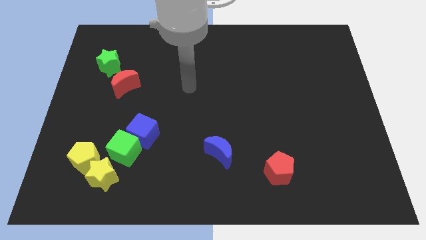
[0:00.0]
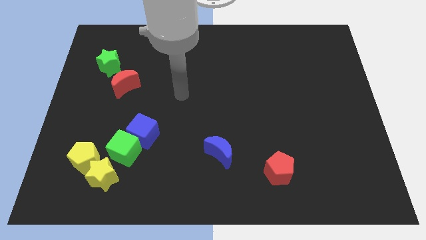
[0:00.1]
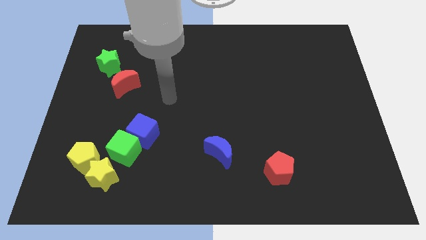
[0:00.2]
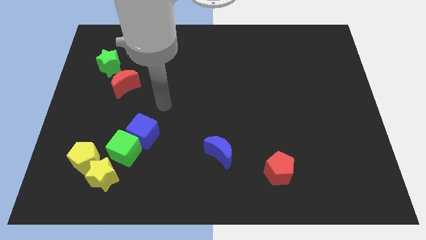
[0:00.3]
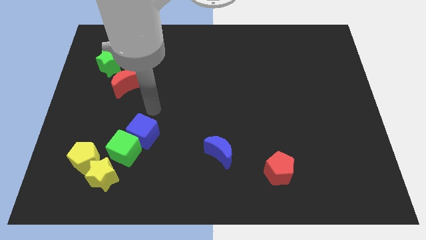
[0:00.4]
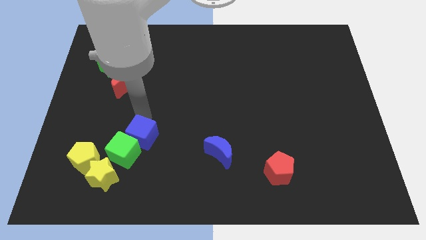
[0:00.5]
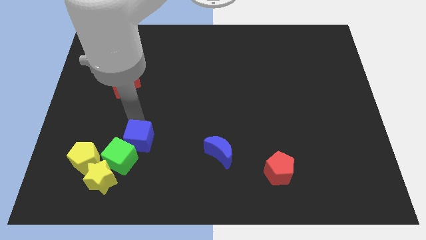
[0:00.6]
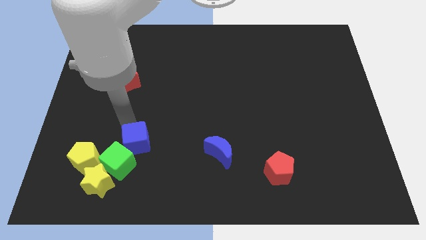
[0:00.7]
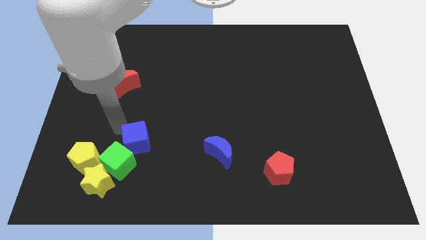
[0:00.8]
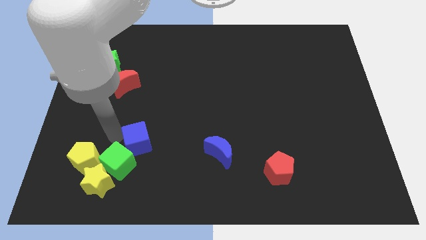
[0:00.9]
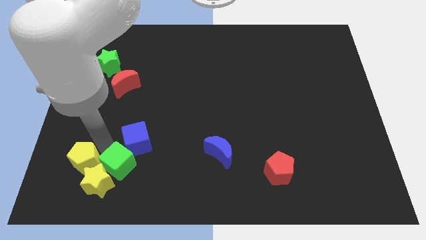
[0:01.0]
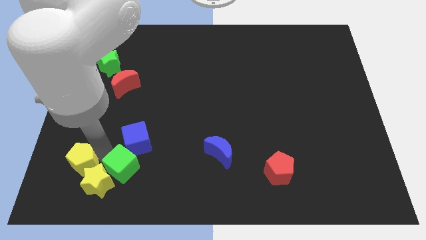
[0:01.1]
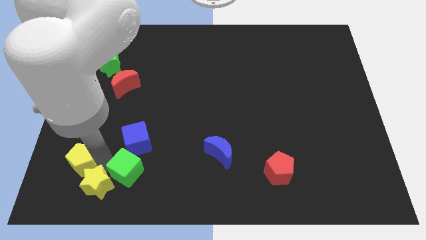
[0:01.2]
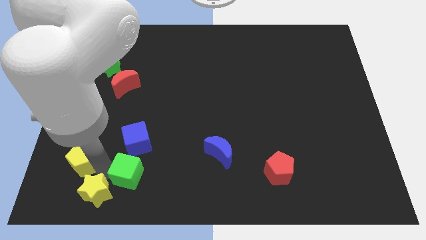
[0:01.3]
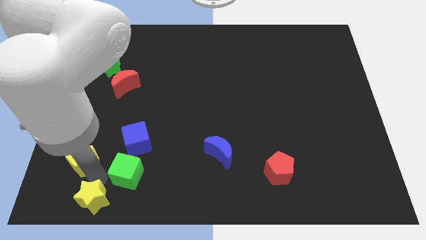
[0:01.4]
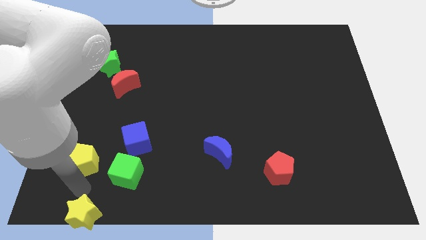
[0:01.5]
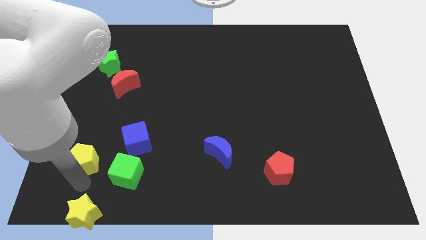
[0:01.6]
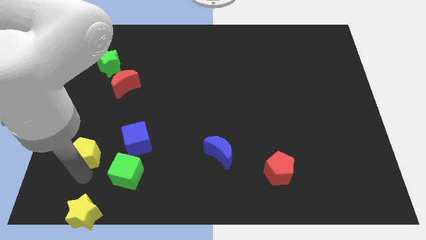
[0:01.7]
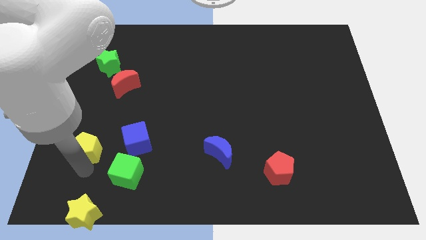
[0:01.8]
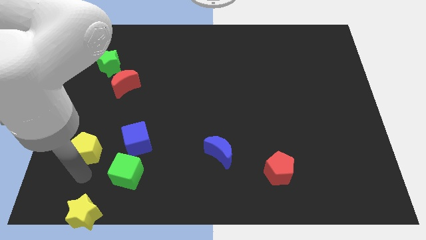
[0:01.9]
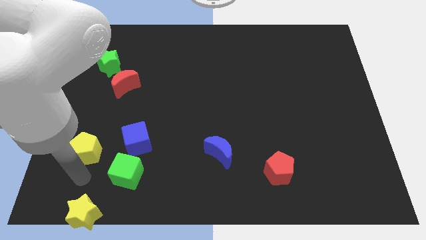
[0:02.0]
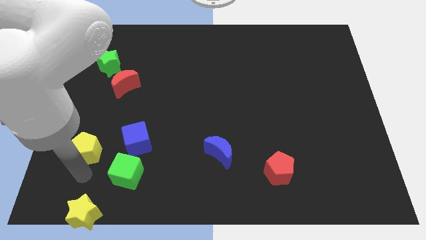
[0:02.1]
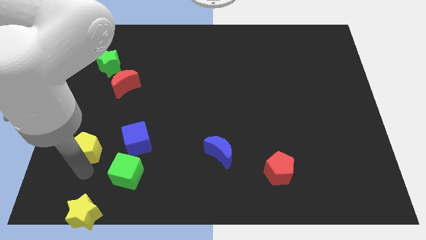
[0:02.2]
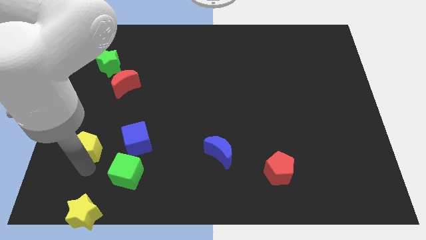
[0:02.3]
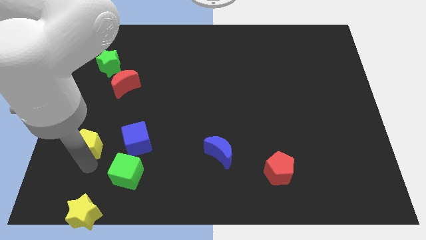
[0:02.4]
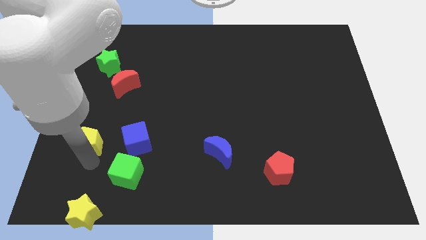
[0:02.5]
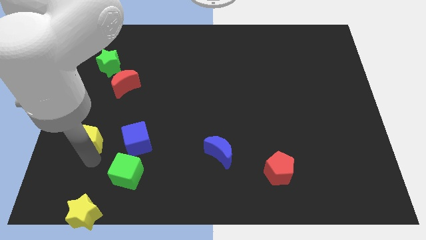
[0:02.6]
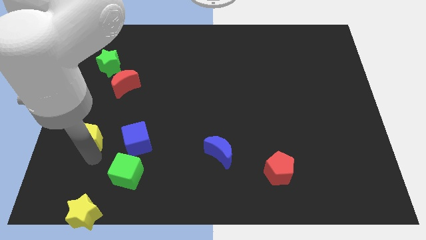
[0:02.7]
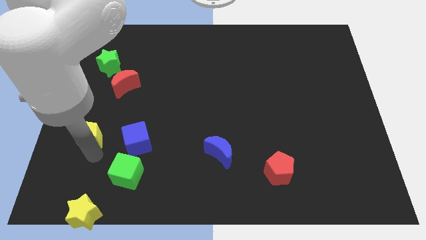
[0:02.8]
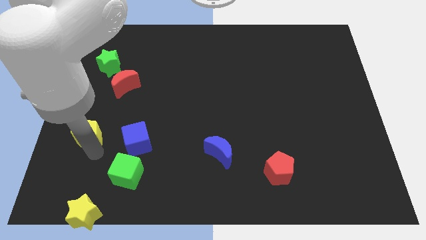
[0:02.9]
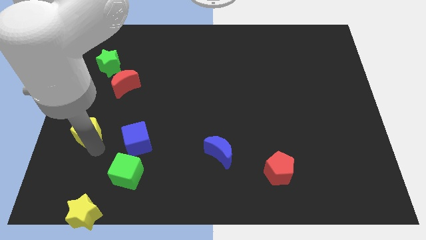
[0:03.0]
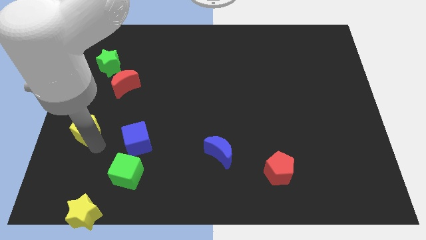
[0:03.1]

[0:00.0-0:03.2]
move the yellow pentagon upwards slightly

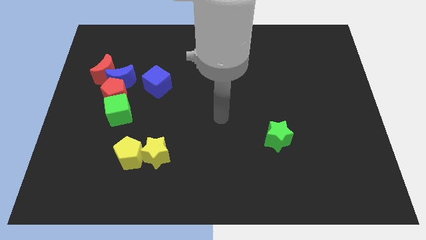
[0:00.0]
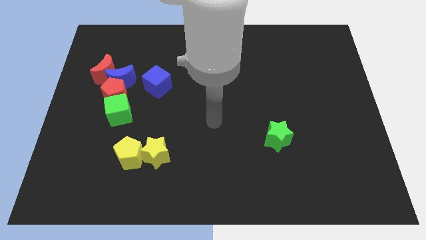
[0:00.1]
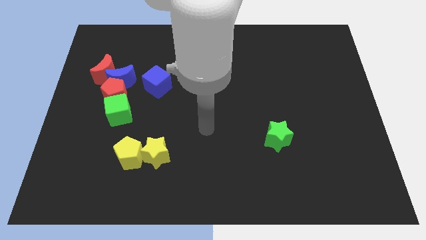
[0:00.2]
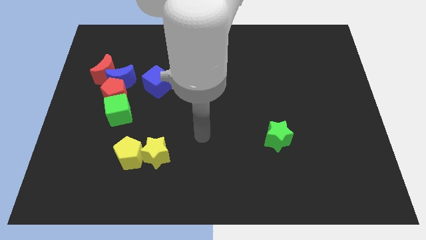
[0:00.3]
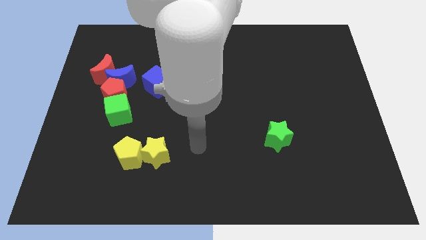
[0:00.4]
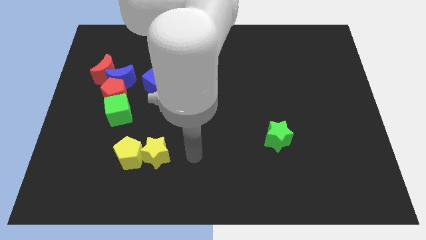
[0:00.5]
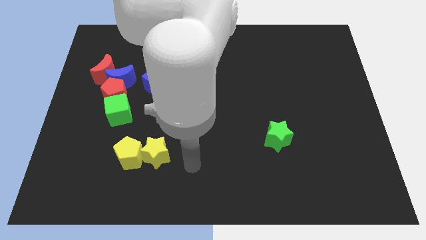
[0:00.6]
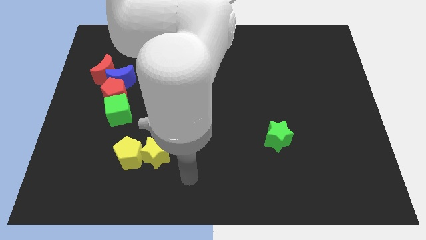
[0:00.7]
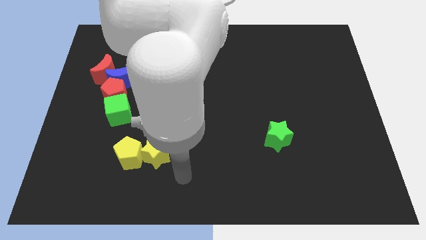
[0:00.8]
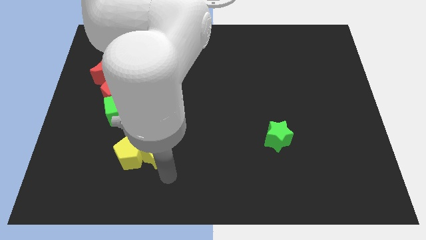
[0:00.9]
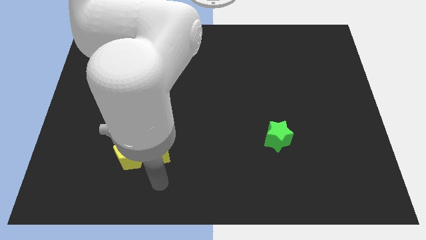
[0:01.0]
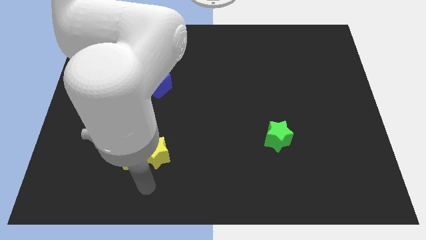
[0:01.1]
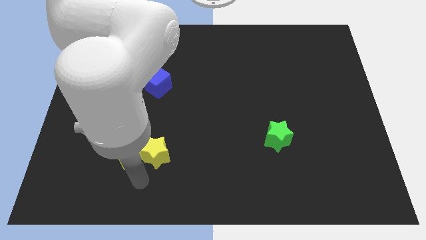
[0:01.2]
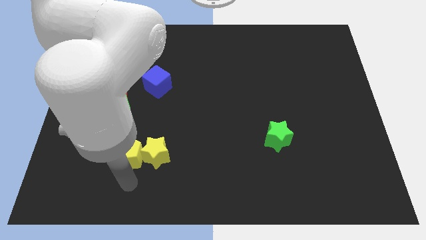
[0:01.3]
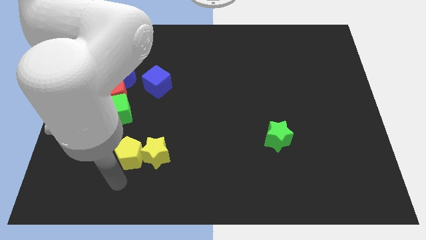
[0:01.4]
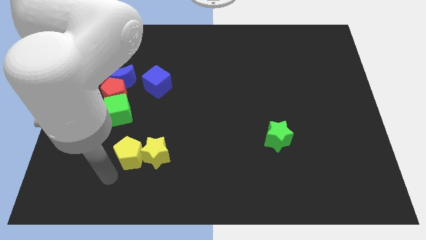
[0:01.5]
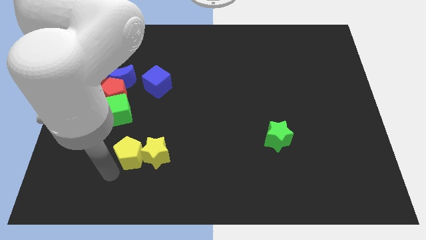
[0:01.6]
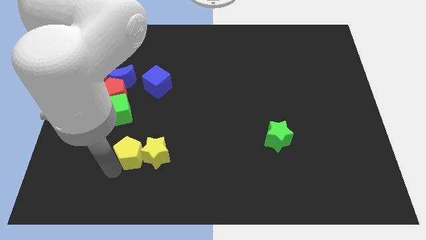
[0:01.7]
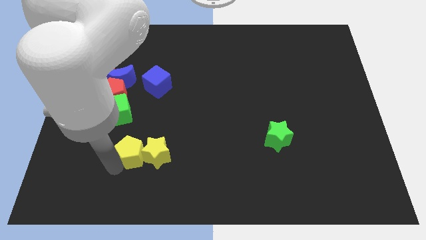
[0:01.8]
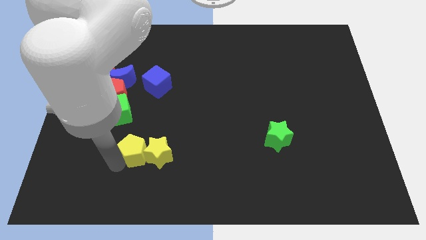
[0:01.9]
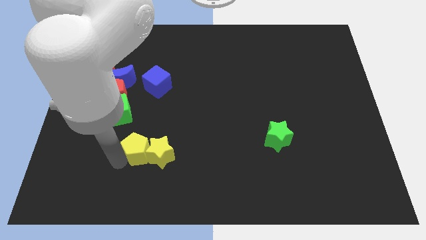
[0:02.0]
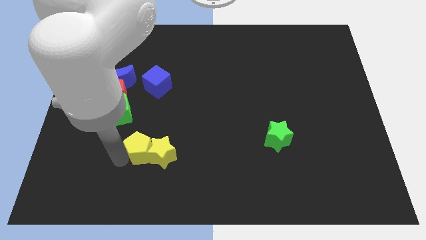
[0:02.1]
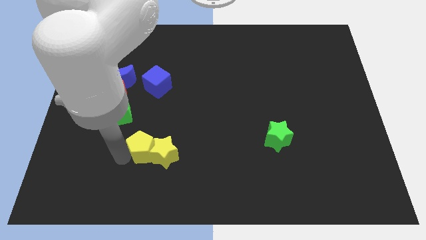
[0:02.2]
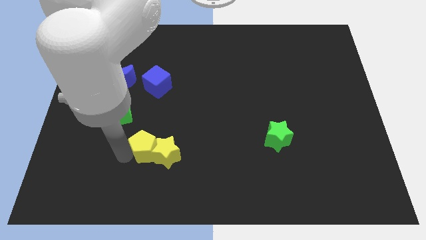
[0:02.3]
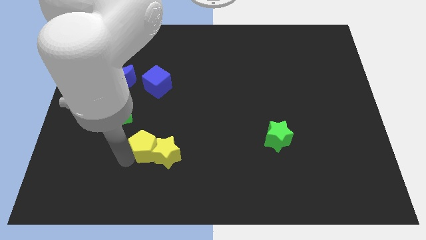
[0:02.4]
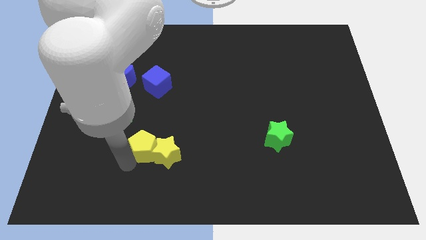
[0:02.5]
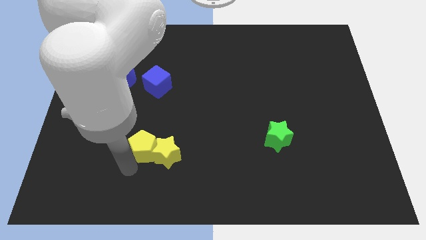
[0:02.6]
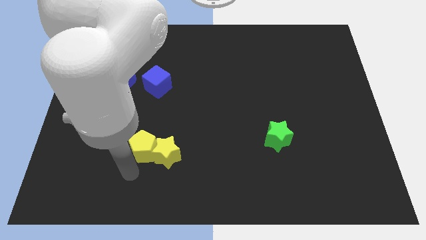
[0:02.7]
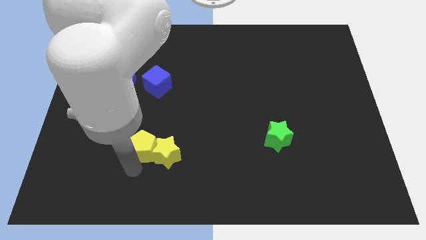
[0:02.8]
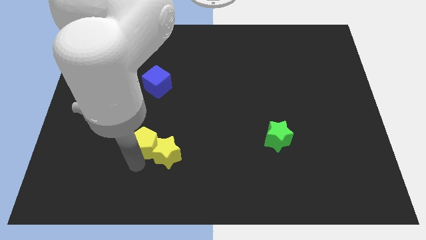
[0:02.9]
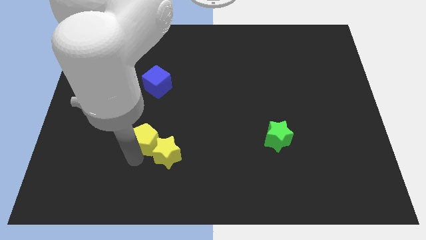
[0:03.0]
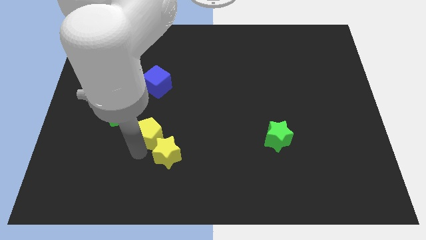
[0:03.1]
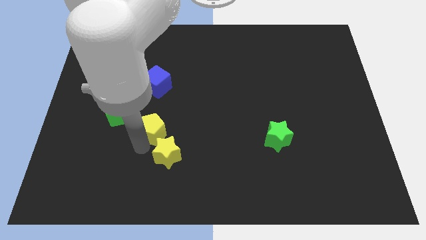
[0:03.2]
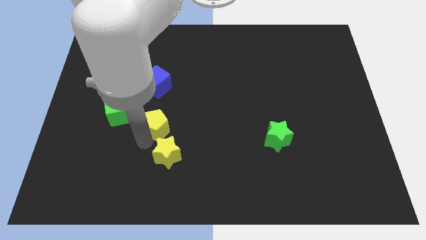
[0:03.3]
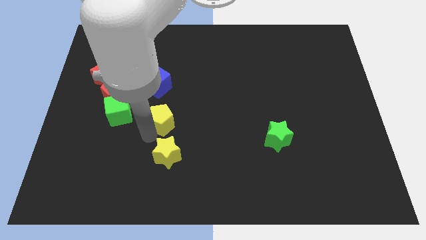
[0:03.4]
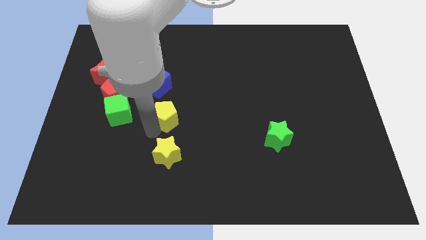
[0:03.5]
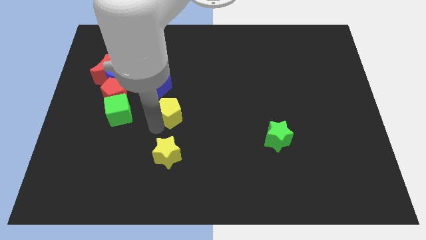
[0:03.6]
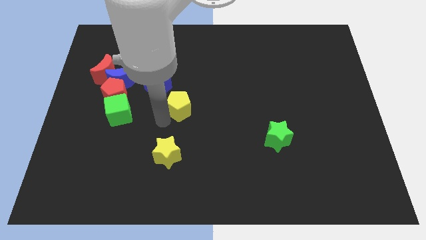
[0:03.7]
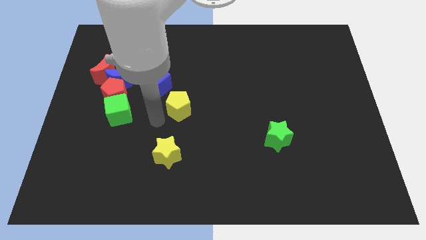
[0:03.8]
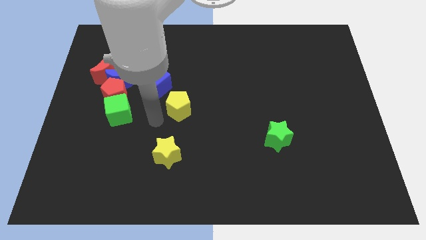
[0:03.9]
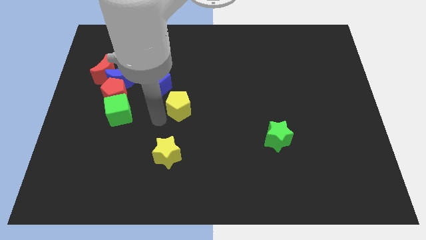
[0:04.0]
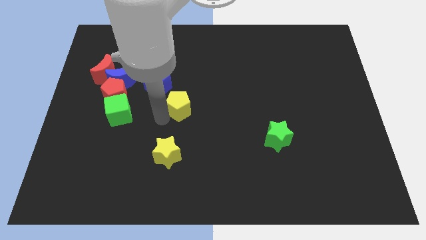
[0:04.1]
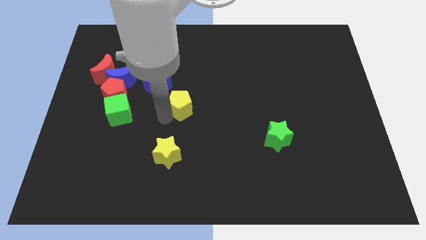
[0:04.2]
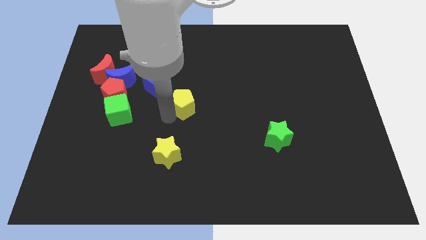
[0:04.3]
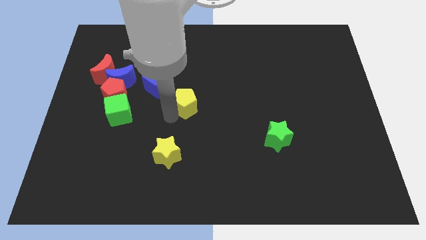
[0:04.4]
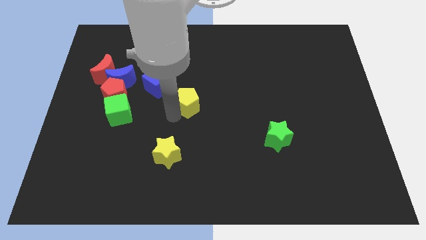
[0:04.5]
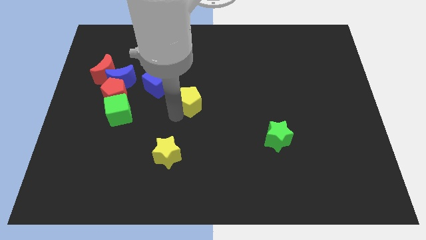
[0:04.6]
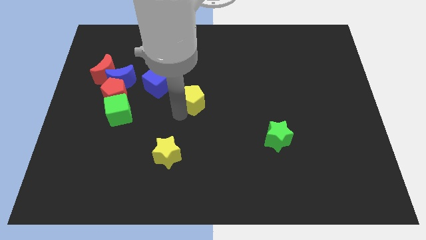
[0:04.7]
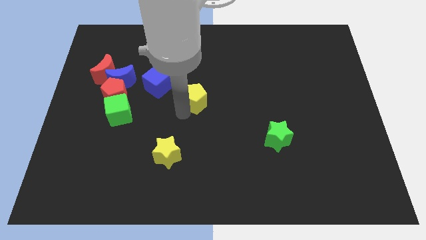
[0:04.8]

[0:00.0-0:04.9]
move the yellow pentagon upwards and right

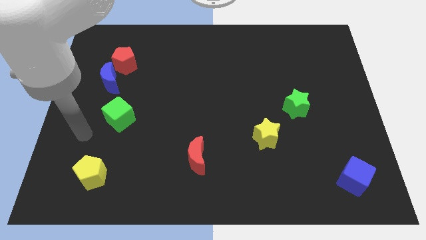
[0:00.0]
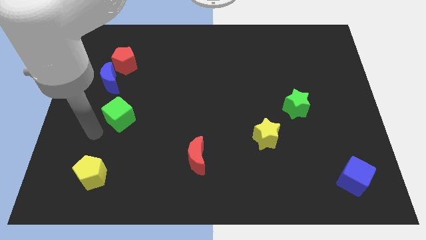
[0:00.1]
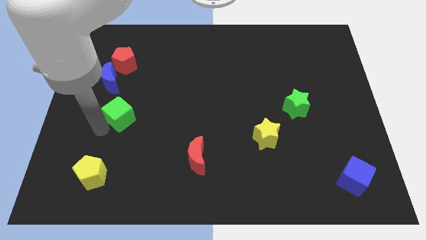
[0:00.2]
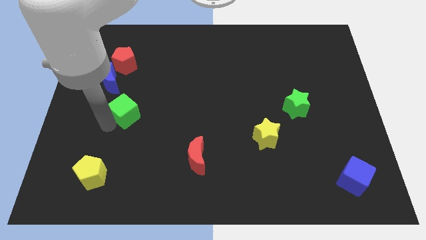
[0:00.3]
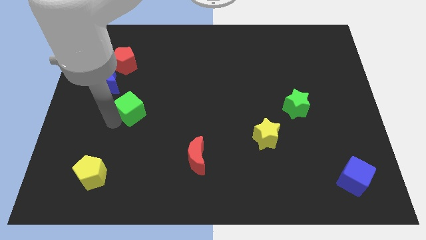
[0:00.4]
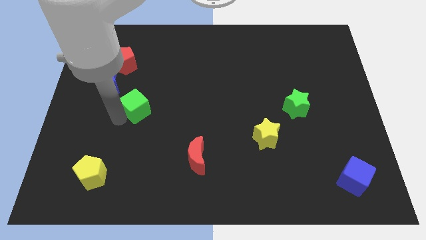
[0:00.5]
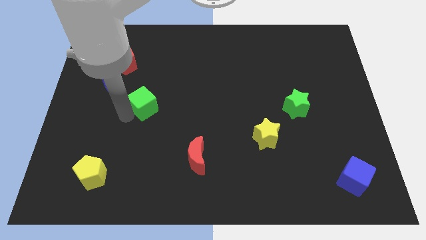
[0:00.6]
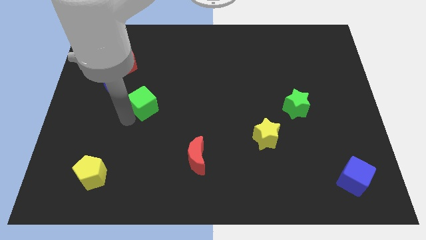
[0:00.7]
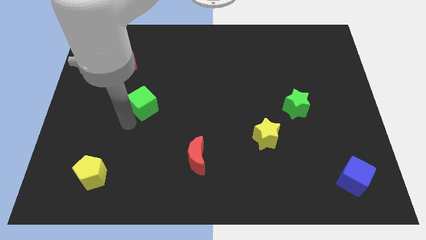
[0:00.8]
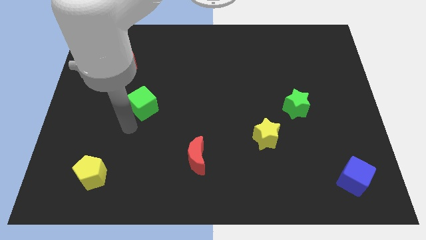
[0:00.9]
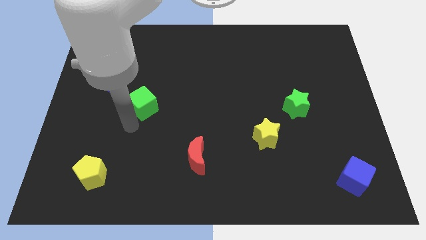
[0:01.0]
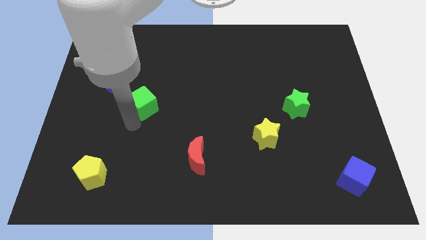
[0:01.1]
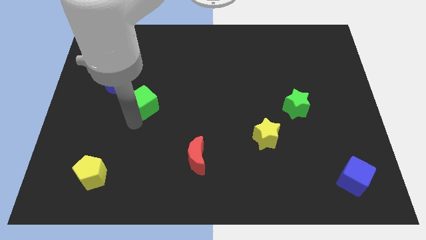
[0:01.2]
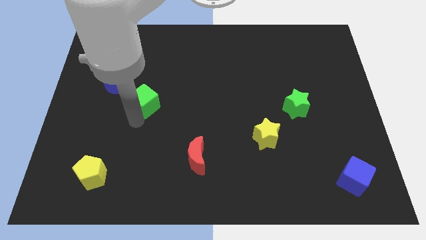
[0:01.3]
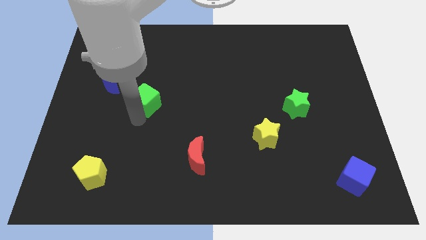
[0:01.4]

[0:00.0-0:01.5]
push the green cube a little upwards and to the right
